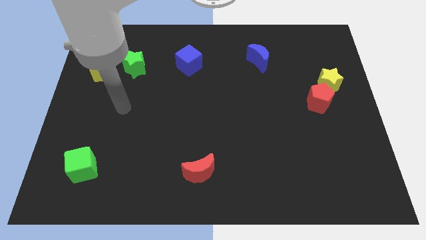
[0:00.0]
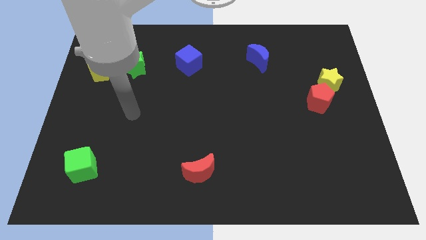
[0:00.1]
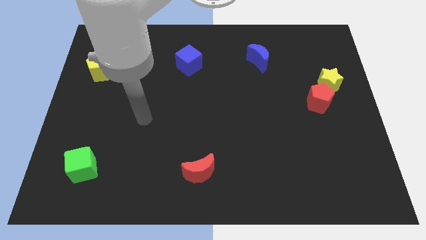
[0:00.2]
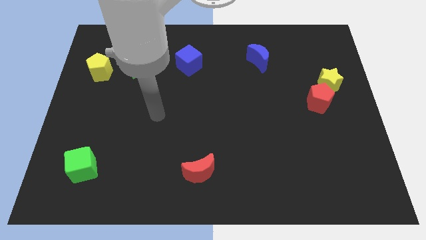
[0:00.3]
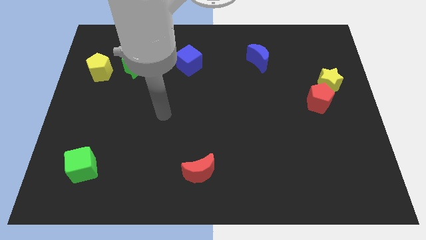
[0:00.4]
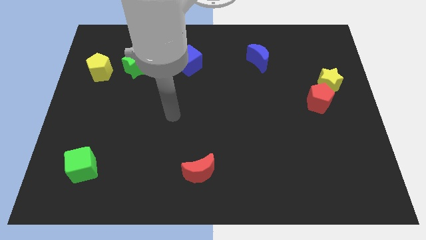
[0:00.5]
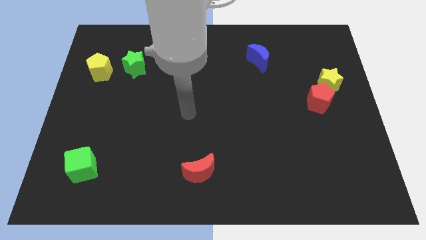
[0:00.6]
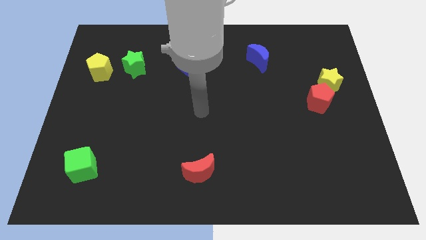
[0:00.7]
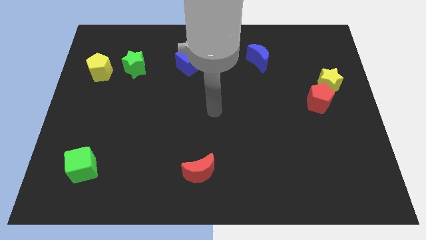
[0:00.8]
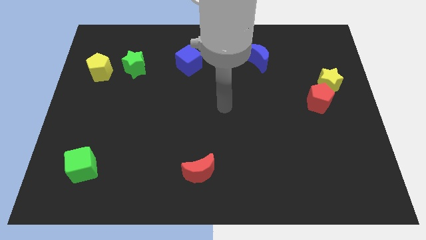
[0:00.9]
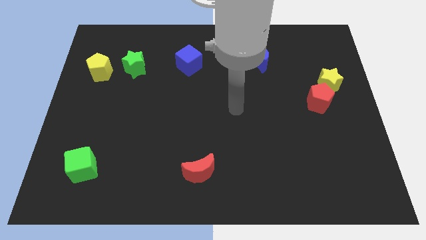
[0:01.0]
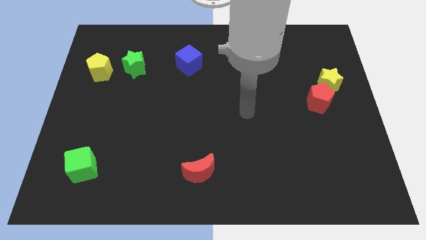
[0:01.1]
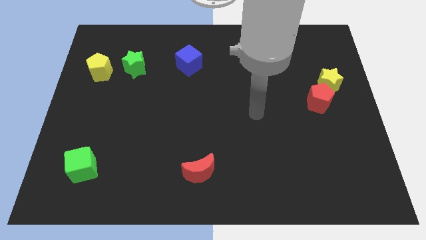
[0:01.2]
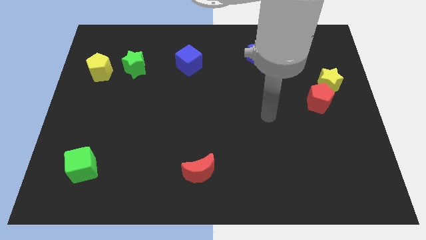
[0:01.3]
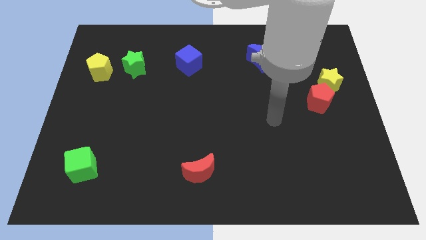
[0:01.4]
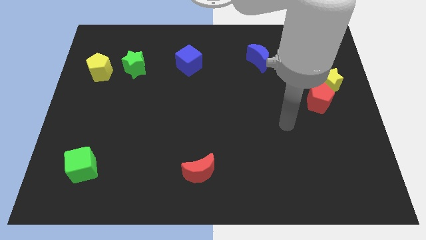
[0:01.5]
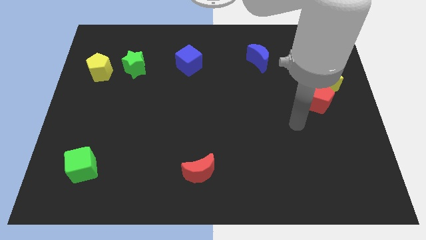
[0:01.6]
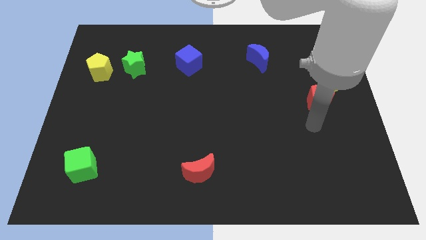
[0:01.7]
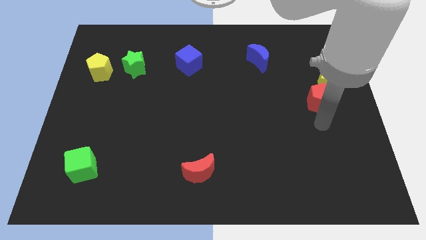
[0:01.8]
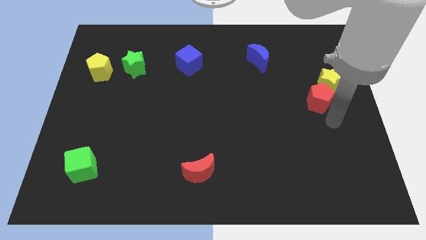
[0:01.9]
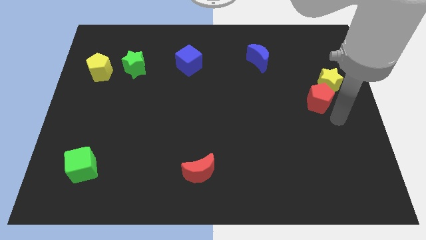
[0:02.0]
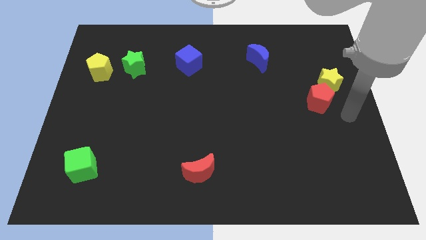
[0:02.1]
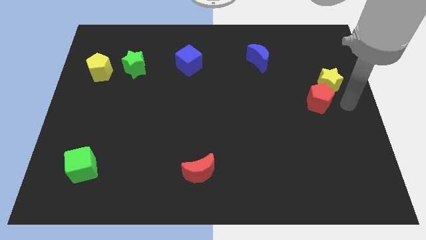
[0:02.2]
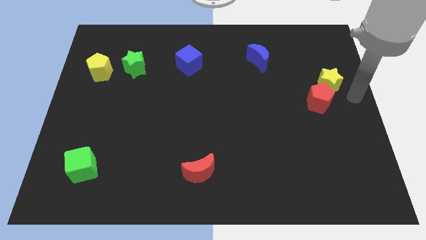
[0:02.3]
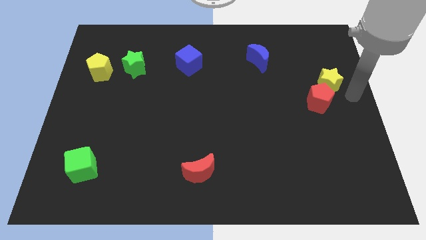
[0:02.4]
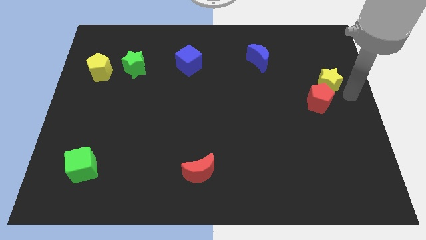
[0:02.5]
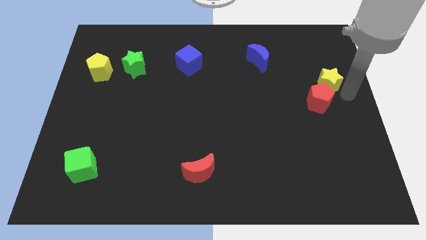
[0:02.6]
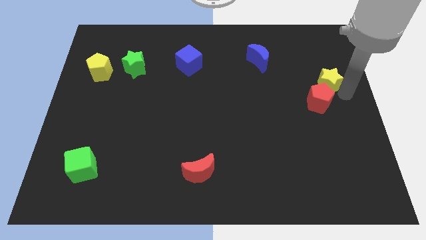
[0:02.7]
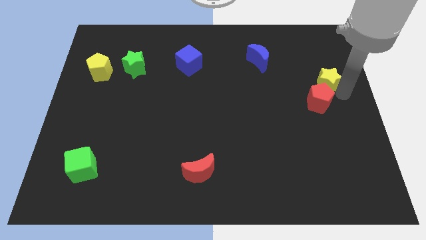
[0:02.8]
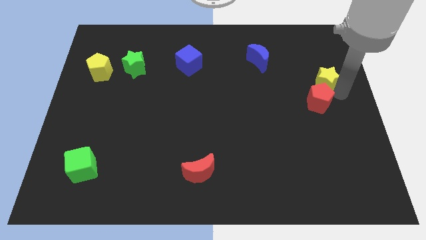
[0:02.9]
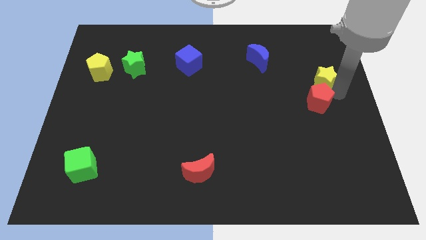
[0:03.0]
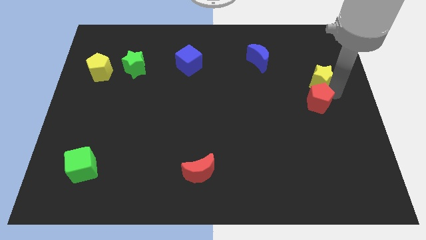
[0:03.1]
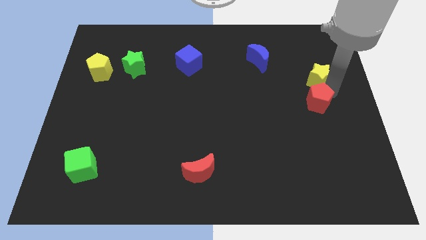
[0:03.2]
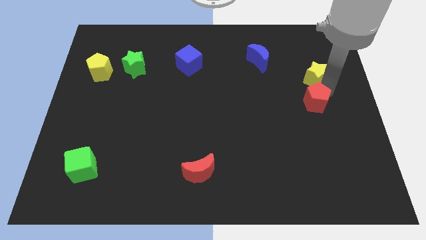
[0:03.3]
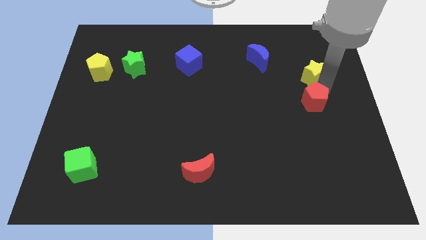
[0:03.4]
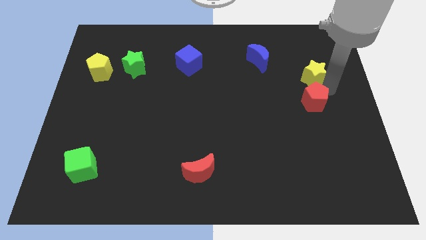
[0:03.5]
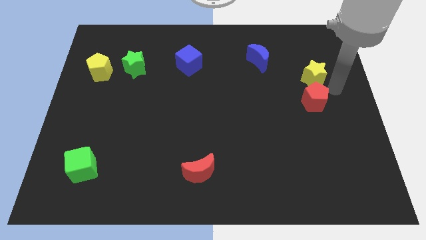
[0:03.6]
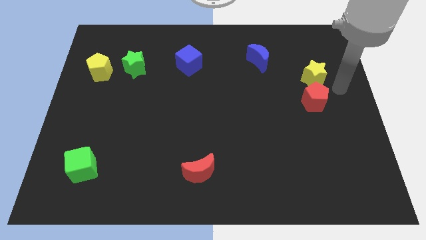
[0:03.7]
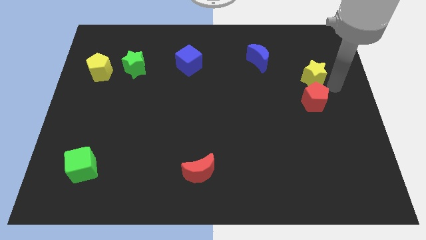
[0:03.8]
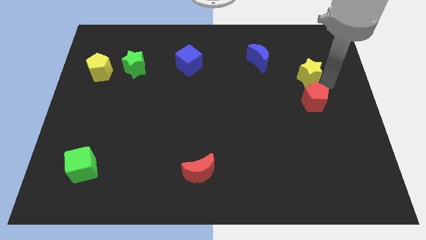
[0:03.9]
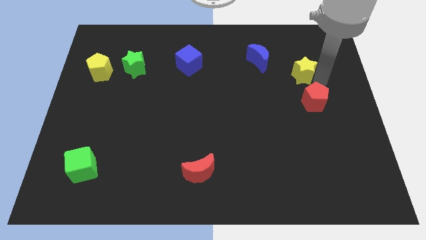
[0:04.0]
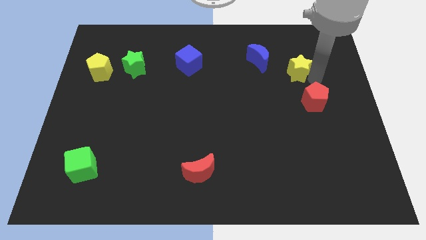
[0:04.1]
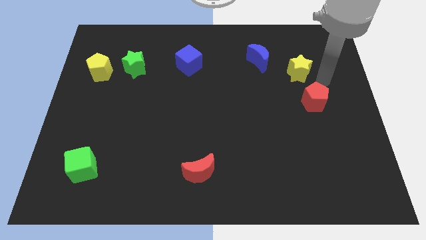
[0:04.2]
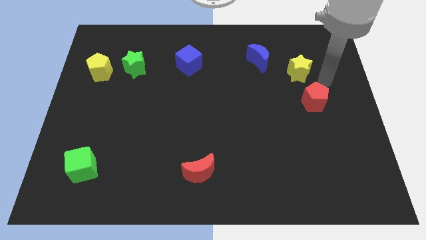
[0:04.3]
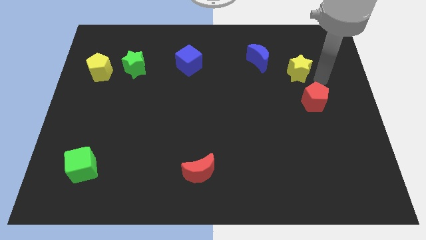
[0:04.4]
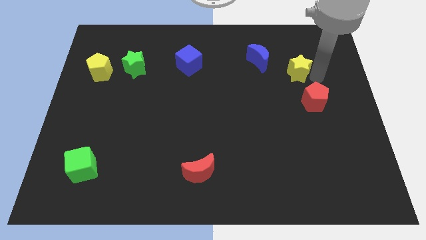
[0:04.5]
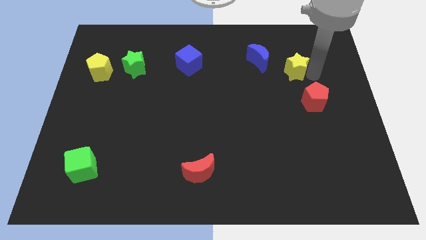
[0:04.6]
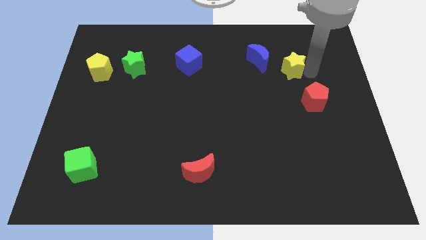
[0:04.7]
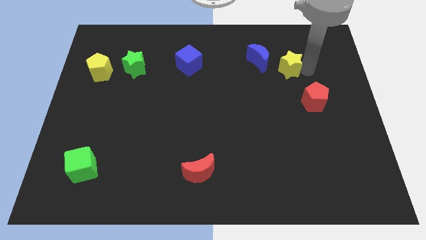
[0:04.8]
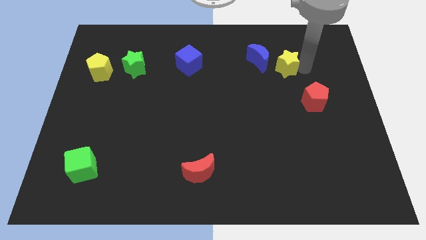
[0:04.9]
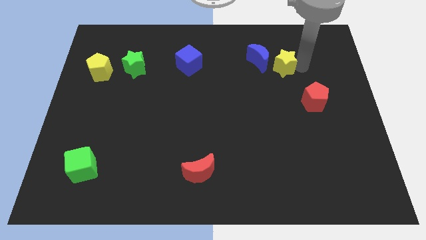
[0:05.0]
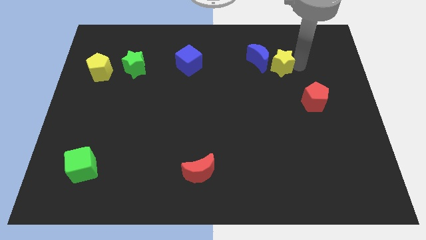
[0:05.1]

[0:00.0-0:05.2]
slide the yellow star towards the blue moon

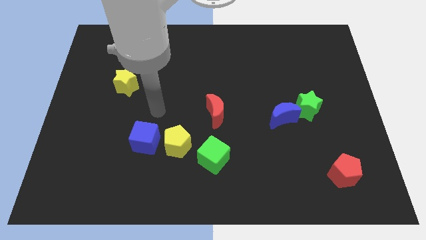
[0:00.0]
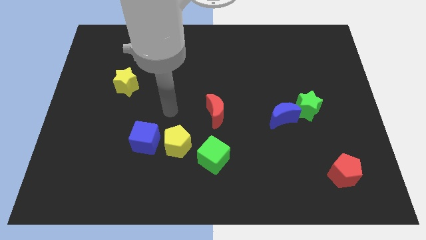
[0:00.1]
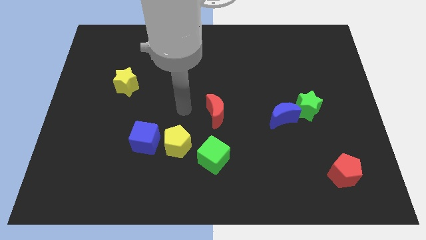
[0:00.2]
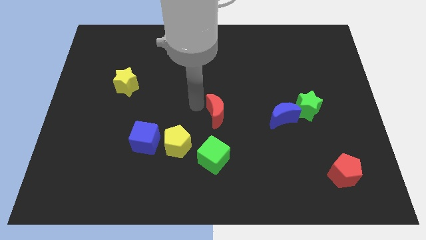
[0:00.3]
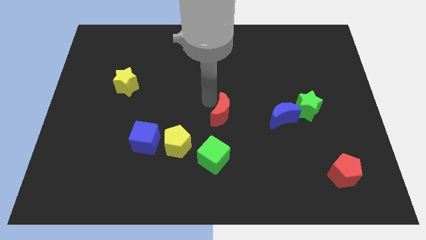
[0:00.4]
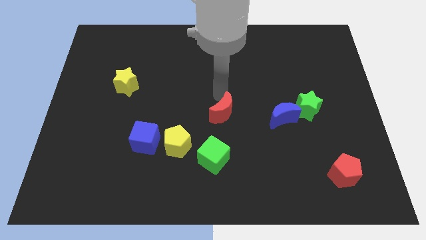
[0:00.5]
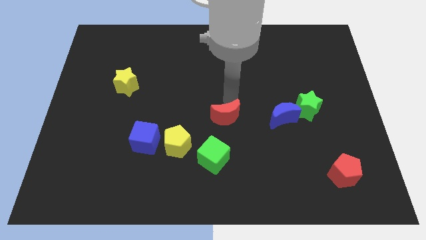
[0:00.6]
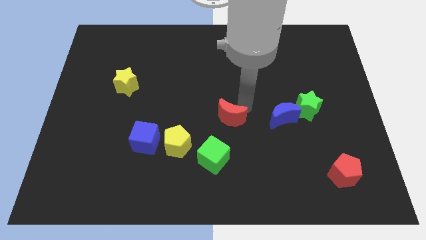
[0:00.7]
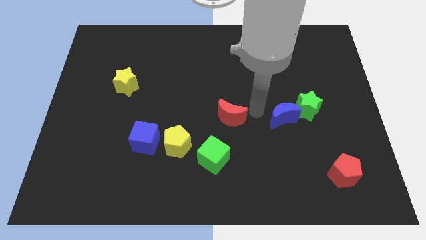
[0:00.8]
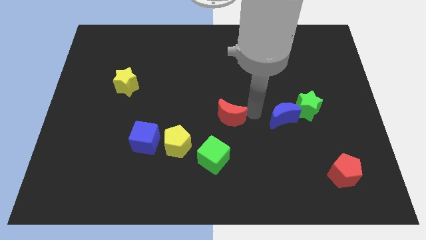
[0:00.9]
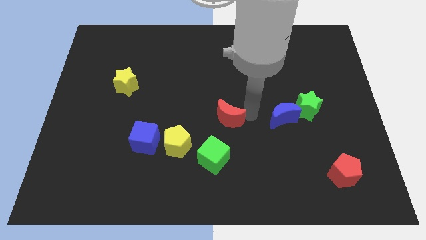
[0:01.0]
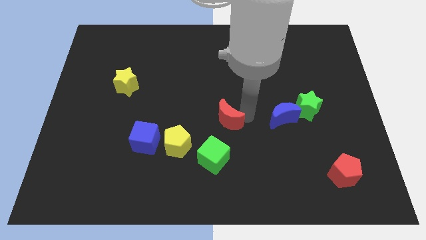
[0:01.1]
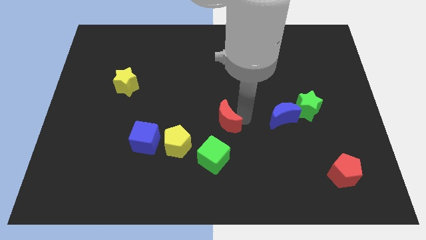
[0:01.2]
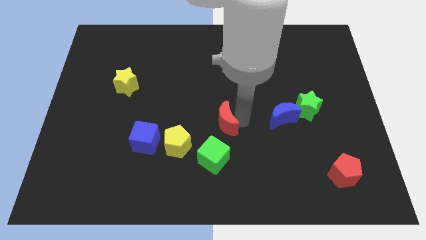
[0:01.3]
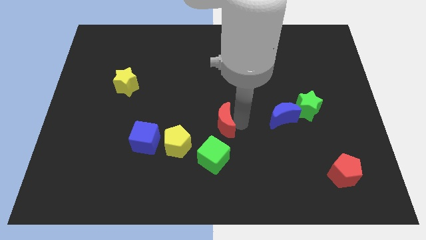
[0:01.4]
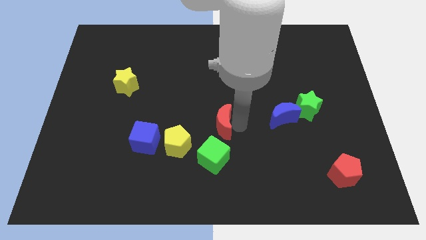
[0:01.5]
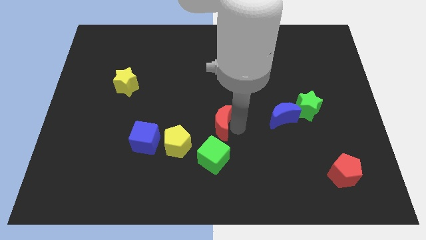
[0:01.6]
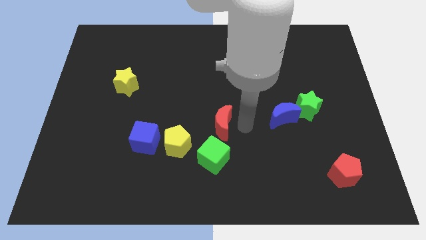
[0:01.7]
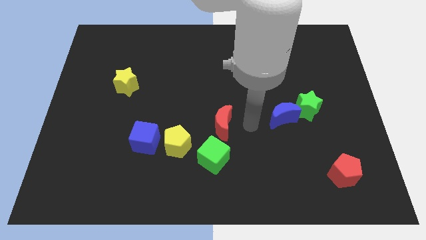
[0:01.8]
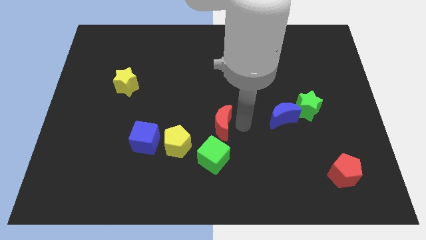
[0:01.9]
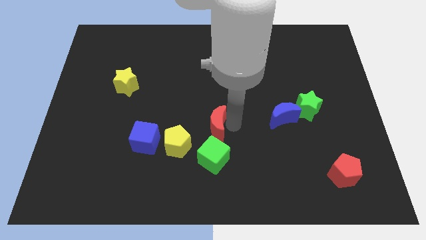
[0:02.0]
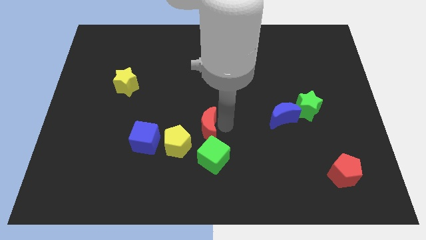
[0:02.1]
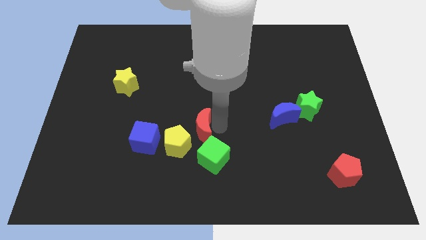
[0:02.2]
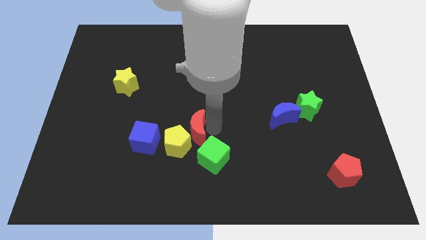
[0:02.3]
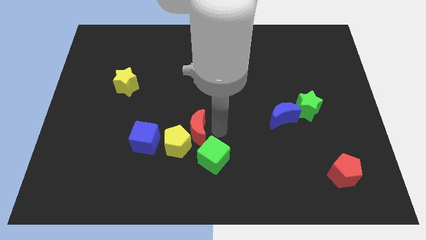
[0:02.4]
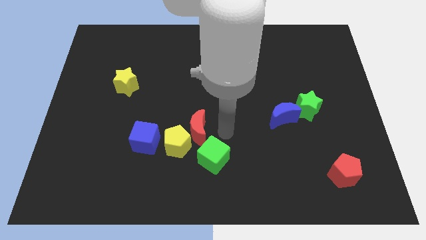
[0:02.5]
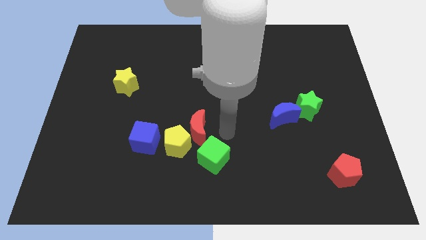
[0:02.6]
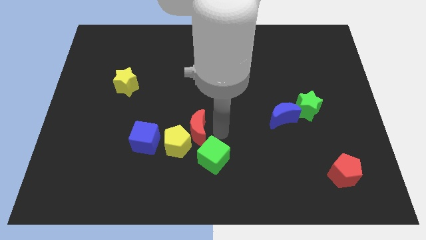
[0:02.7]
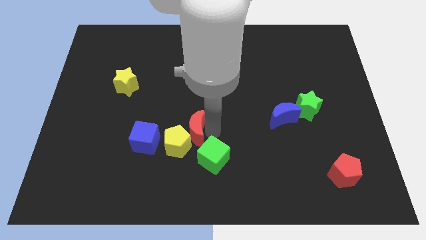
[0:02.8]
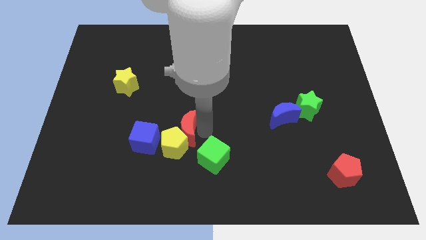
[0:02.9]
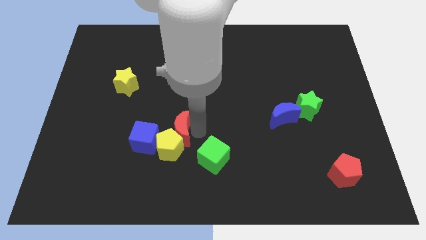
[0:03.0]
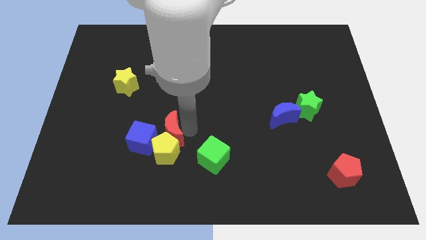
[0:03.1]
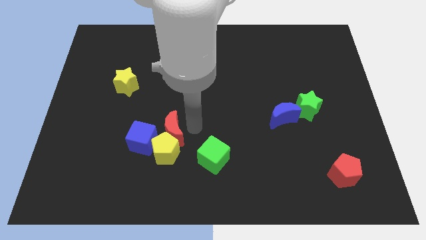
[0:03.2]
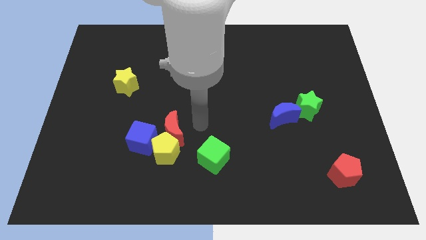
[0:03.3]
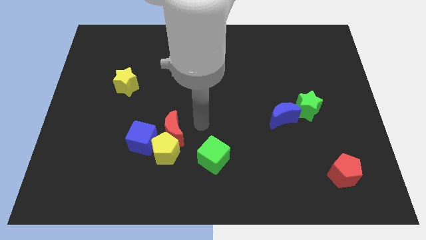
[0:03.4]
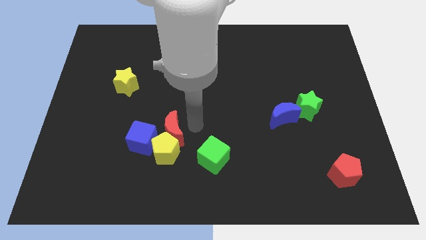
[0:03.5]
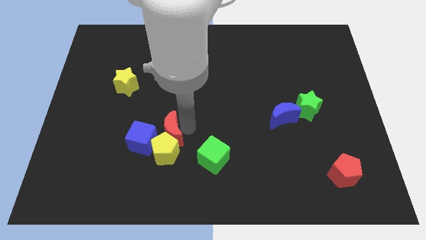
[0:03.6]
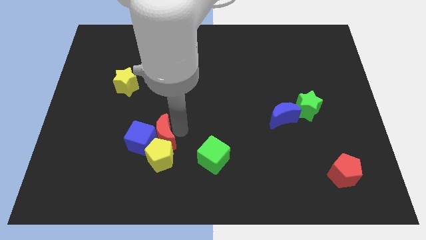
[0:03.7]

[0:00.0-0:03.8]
put the red moon close to the blue cube
